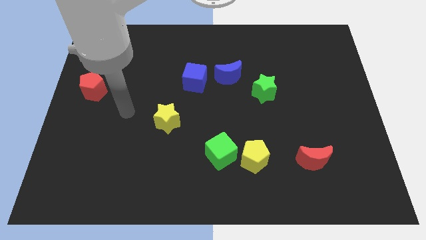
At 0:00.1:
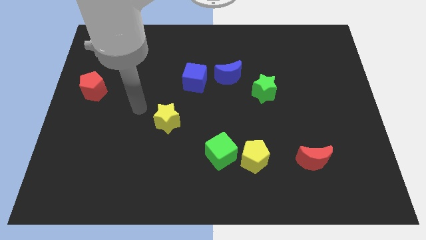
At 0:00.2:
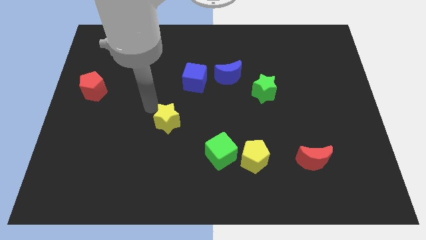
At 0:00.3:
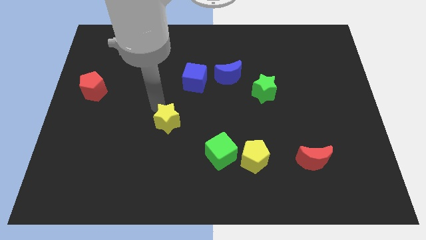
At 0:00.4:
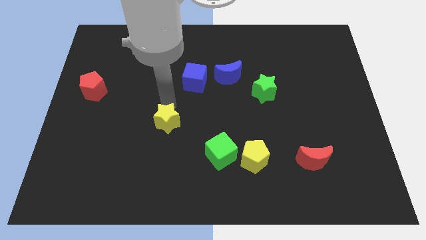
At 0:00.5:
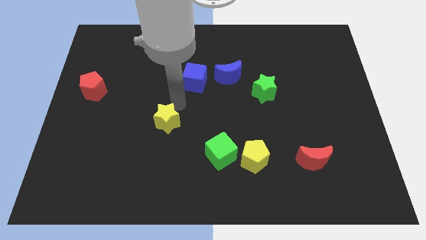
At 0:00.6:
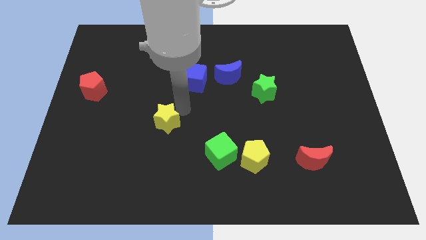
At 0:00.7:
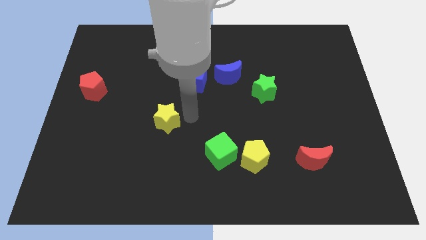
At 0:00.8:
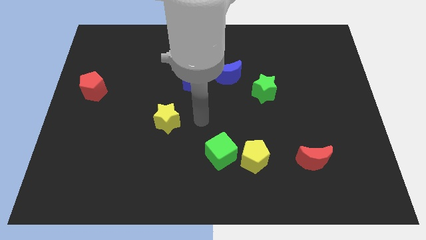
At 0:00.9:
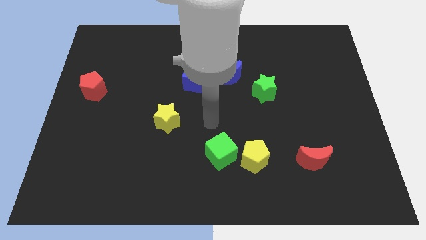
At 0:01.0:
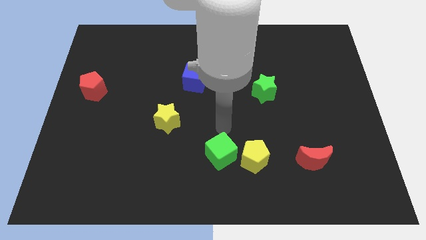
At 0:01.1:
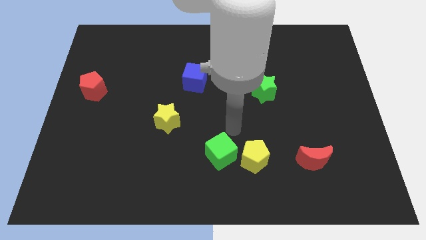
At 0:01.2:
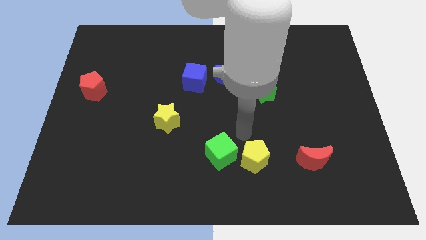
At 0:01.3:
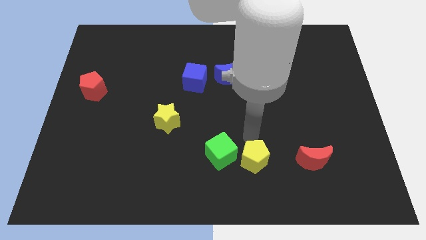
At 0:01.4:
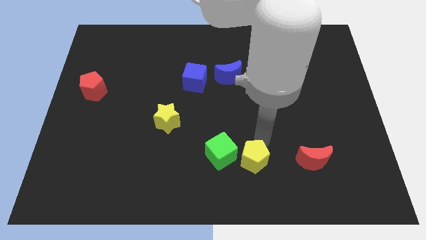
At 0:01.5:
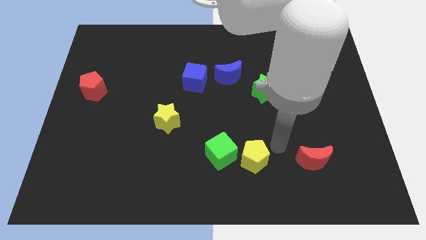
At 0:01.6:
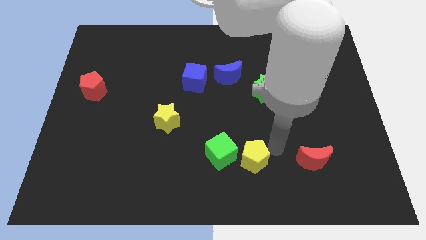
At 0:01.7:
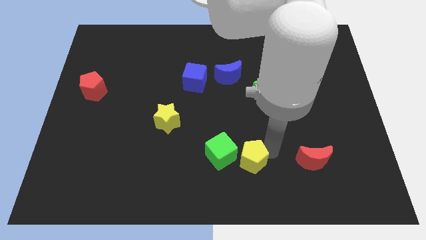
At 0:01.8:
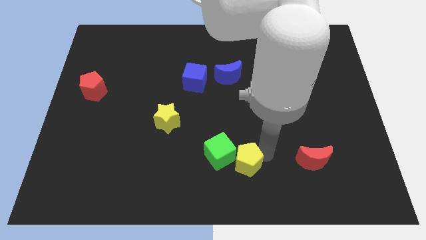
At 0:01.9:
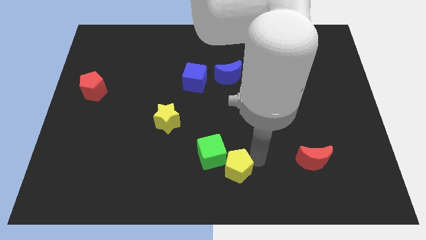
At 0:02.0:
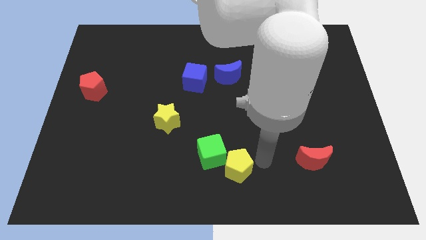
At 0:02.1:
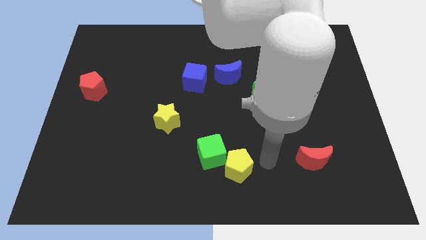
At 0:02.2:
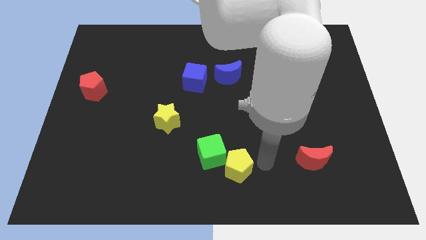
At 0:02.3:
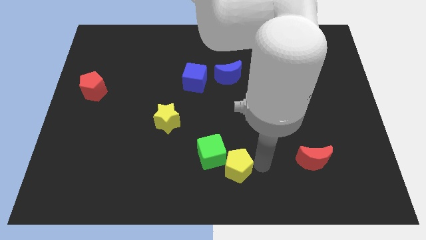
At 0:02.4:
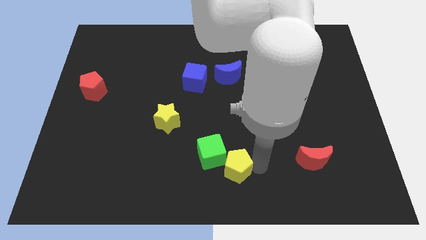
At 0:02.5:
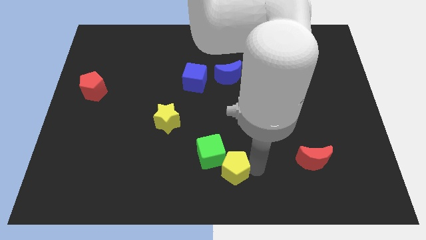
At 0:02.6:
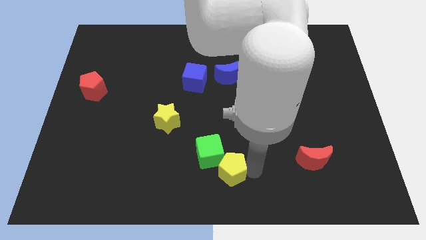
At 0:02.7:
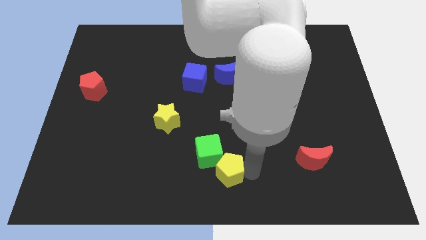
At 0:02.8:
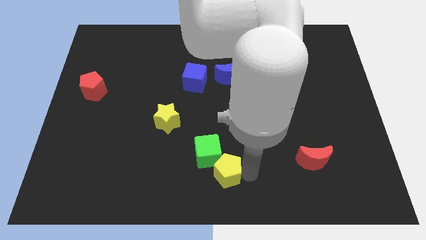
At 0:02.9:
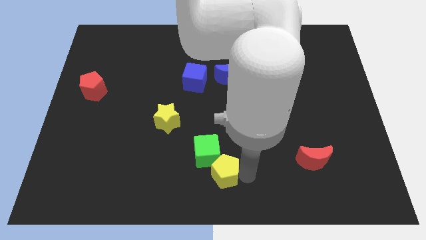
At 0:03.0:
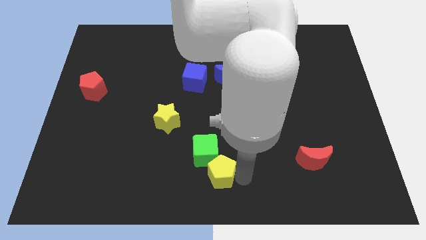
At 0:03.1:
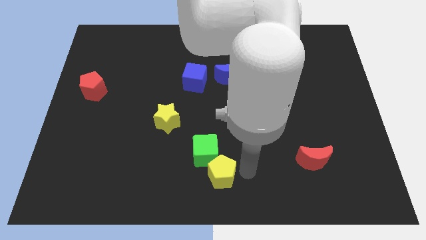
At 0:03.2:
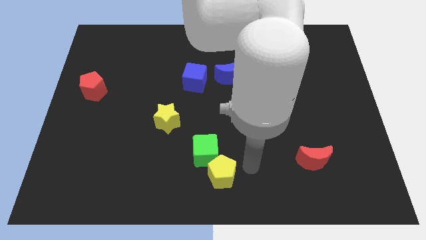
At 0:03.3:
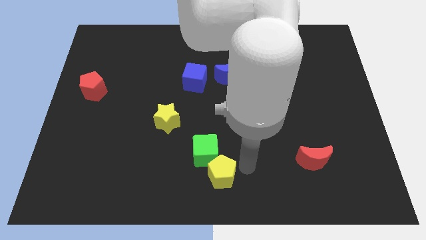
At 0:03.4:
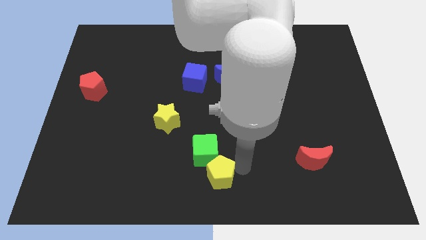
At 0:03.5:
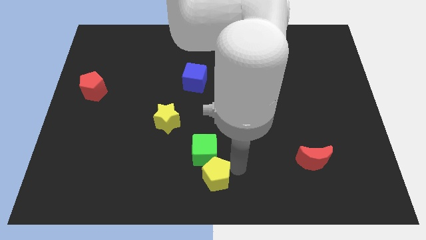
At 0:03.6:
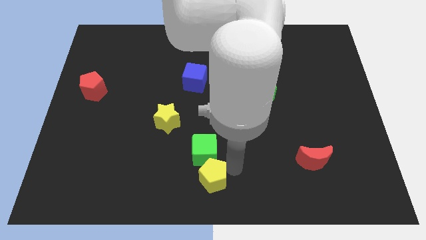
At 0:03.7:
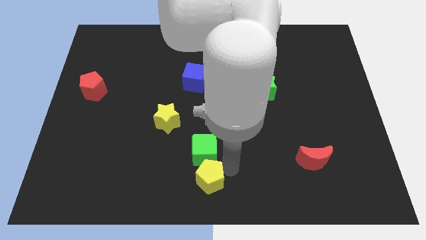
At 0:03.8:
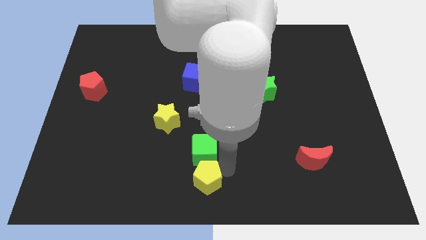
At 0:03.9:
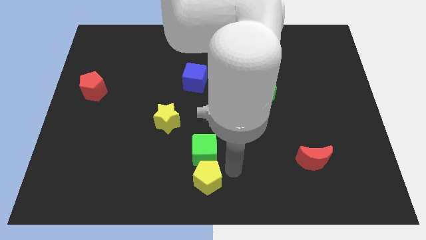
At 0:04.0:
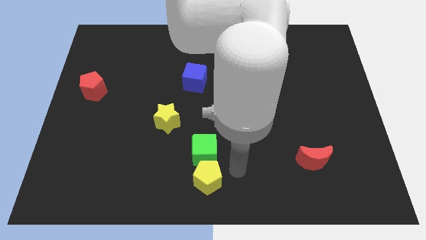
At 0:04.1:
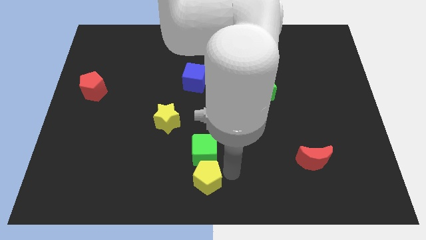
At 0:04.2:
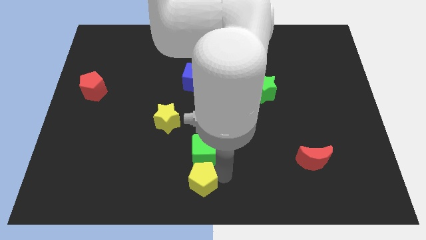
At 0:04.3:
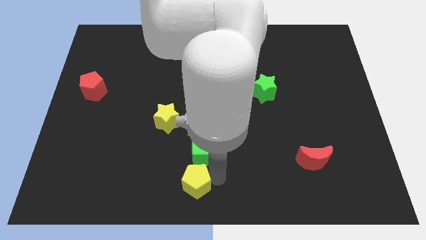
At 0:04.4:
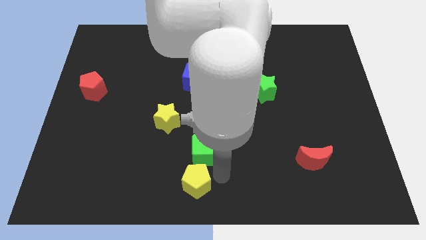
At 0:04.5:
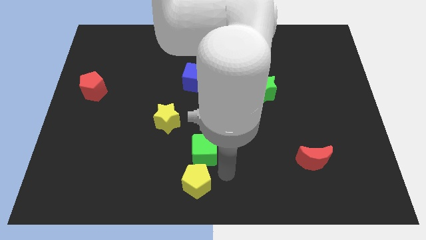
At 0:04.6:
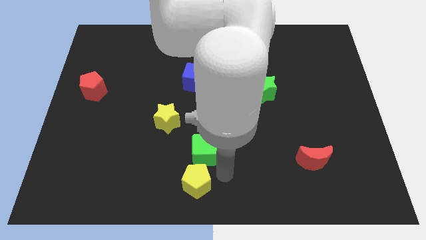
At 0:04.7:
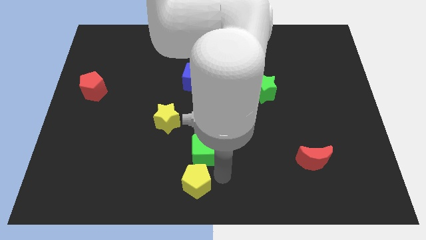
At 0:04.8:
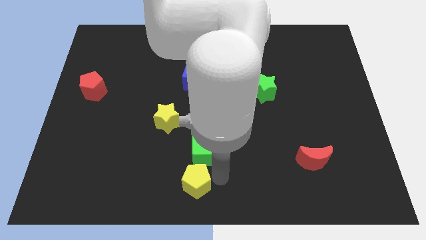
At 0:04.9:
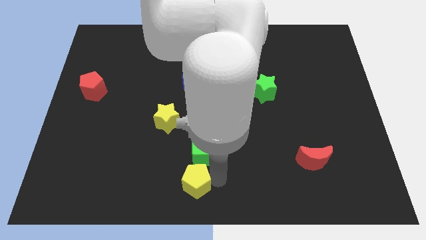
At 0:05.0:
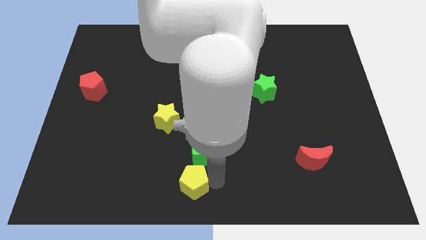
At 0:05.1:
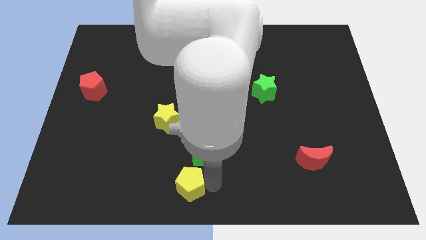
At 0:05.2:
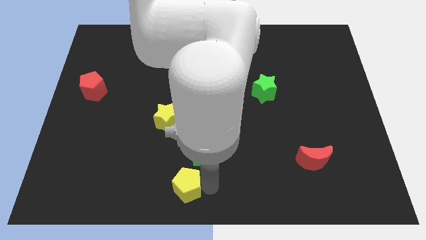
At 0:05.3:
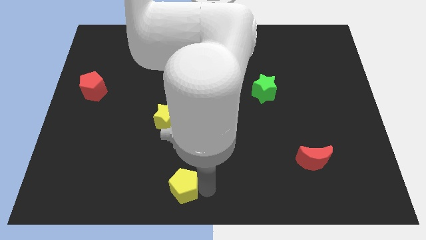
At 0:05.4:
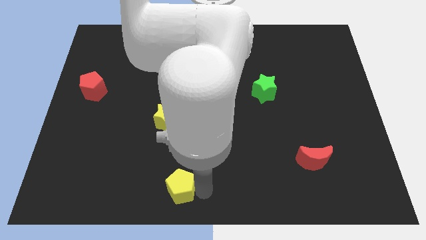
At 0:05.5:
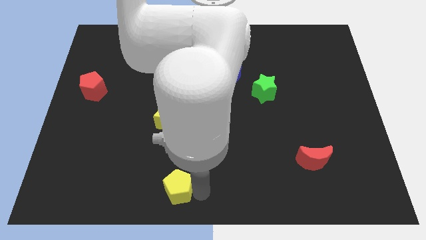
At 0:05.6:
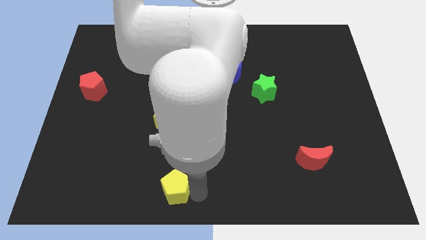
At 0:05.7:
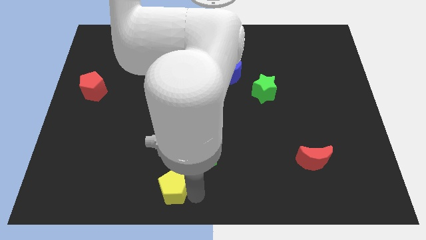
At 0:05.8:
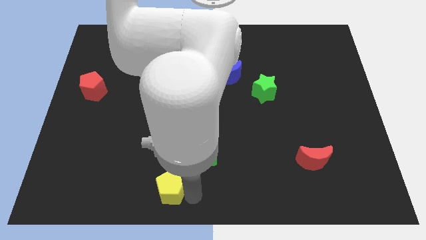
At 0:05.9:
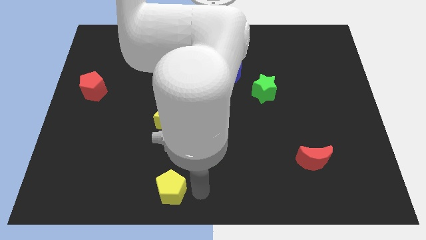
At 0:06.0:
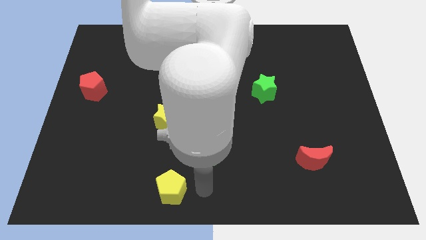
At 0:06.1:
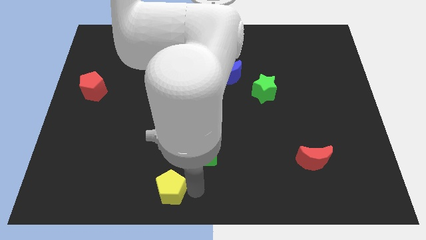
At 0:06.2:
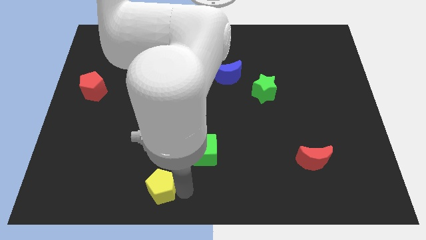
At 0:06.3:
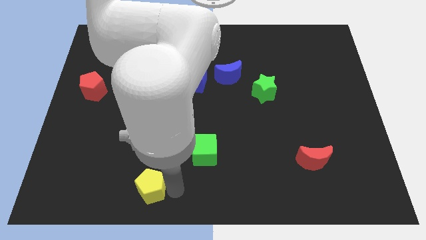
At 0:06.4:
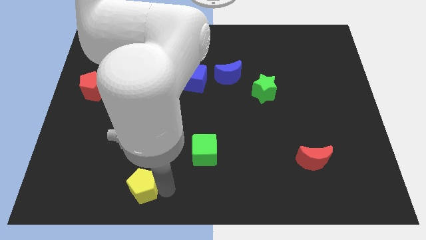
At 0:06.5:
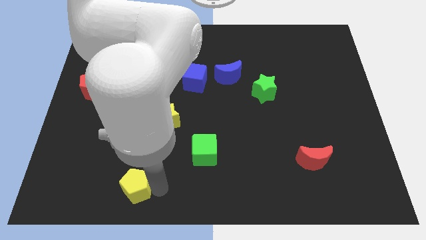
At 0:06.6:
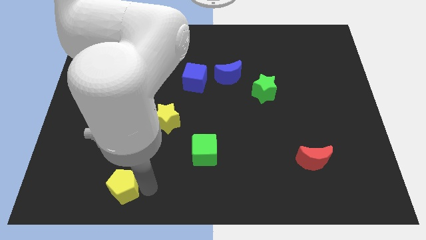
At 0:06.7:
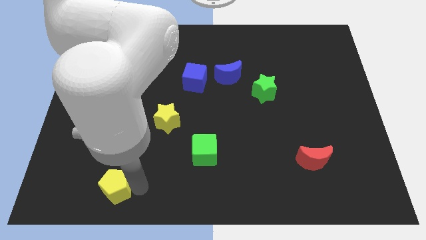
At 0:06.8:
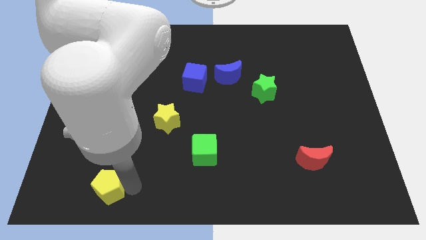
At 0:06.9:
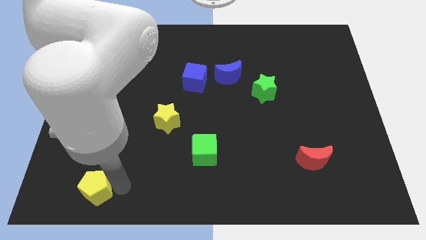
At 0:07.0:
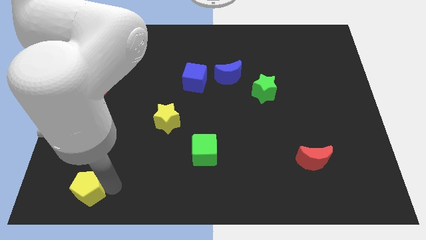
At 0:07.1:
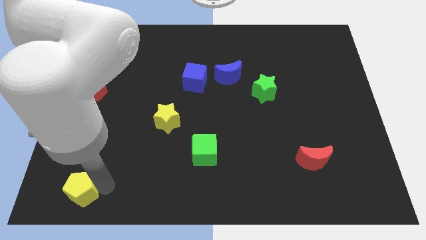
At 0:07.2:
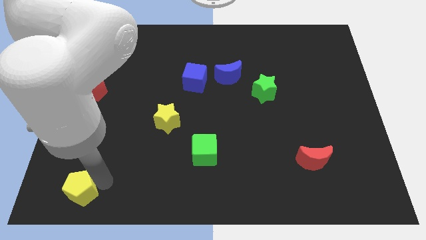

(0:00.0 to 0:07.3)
move the yellow pentagon to the bottom left of the board
